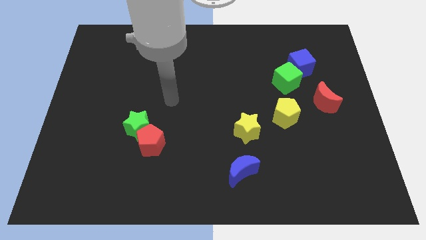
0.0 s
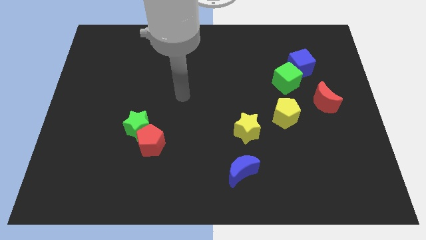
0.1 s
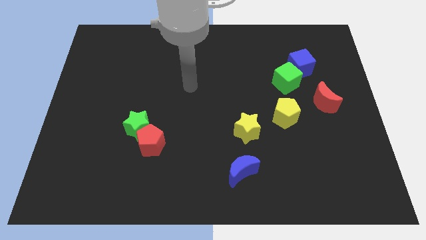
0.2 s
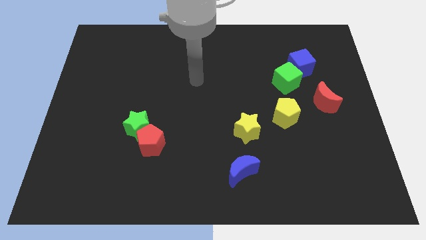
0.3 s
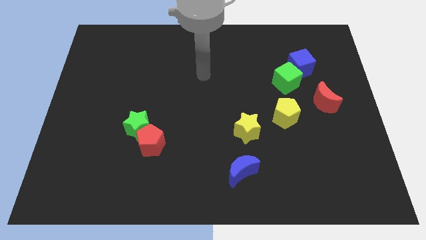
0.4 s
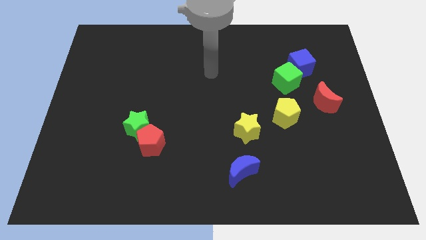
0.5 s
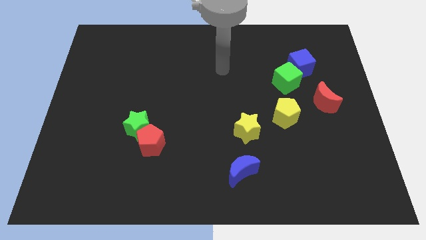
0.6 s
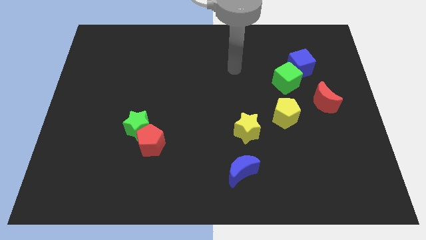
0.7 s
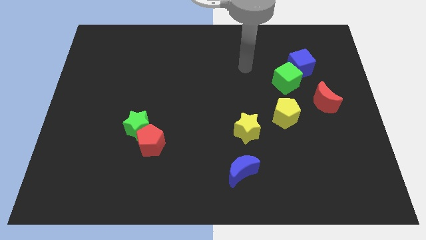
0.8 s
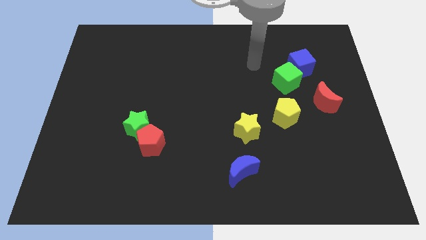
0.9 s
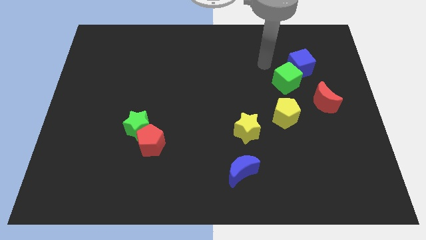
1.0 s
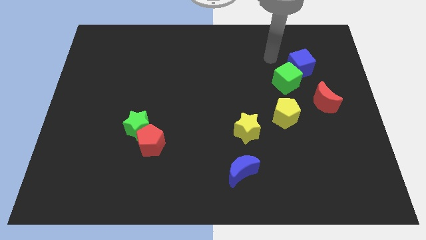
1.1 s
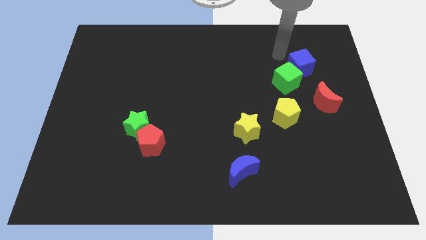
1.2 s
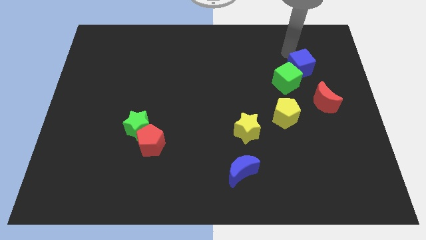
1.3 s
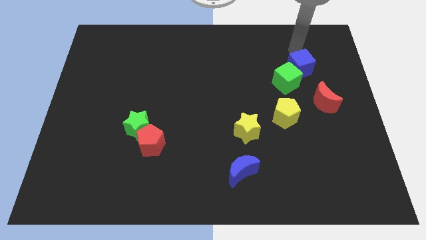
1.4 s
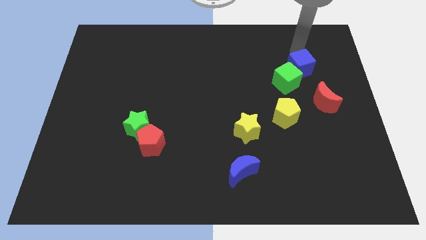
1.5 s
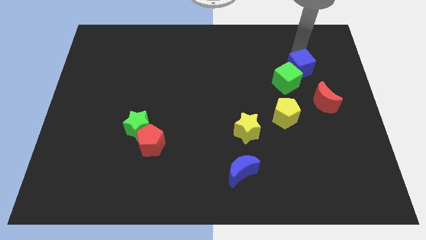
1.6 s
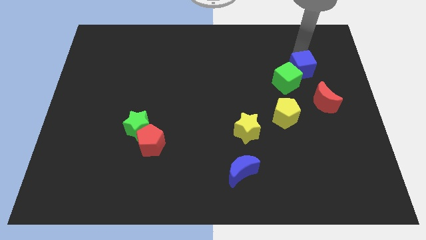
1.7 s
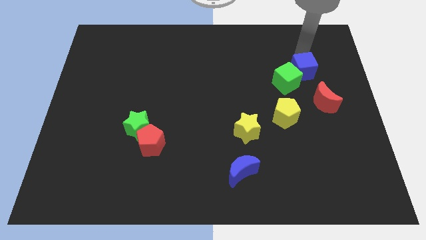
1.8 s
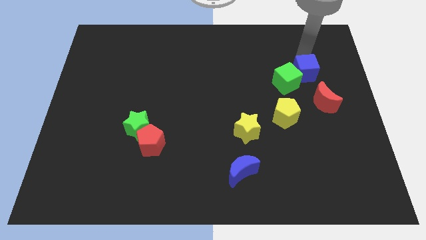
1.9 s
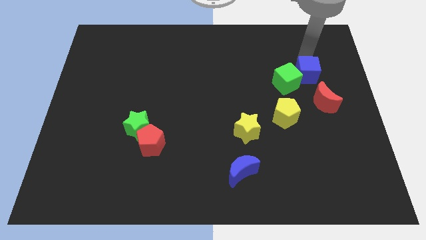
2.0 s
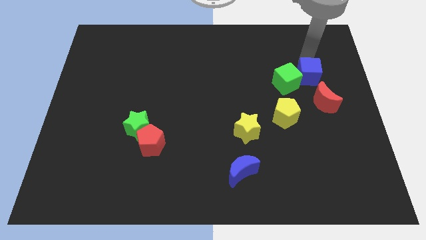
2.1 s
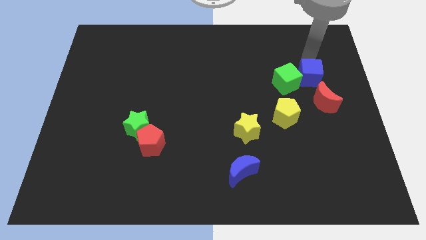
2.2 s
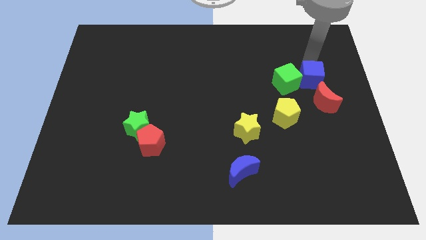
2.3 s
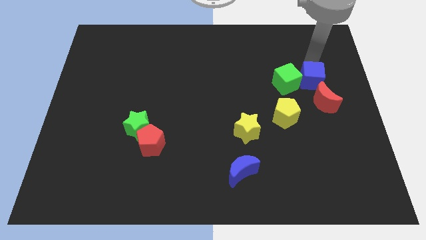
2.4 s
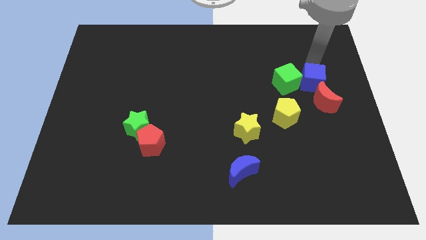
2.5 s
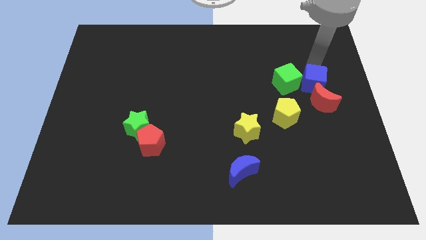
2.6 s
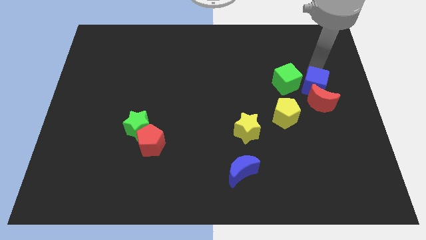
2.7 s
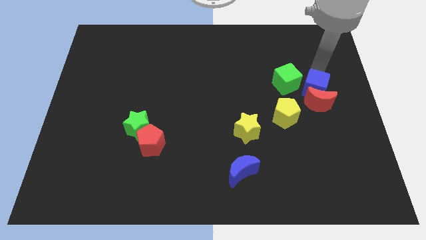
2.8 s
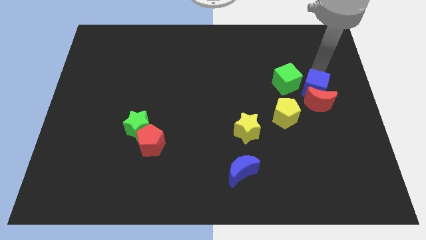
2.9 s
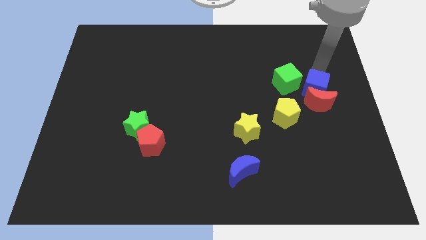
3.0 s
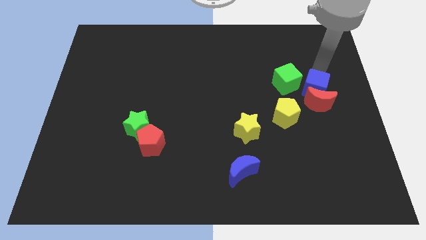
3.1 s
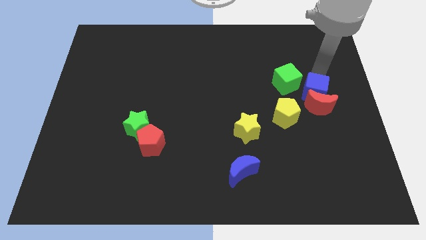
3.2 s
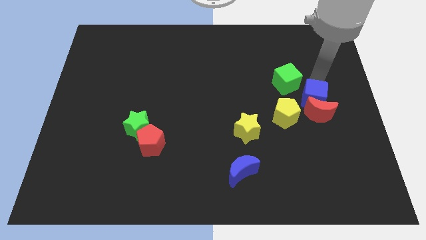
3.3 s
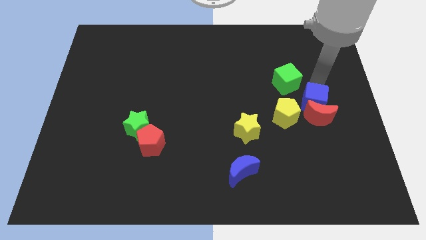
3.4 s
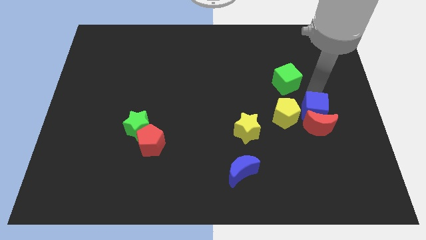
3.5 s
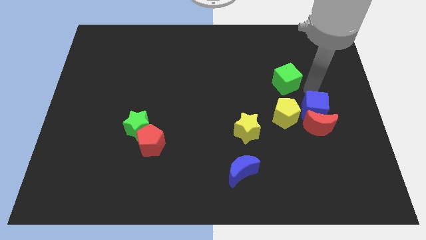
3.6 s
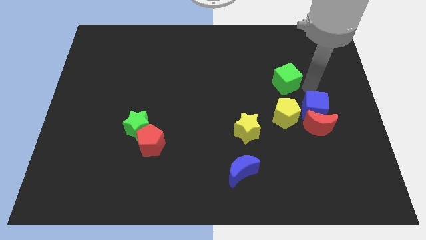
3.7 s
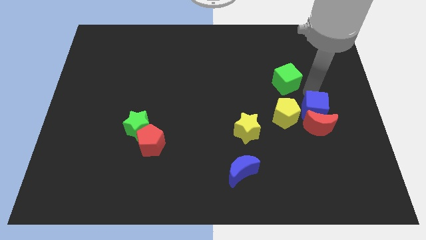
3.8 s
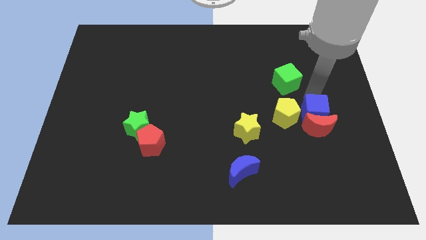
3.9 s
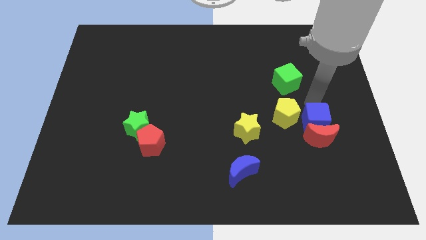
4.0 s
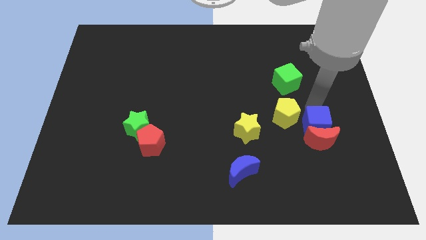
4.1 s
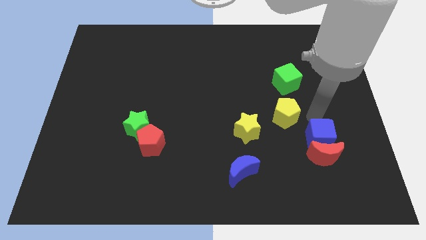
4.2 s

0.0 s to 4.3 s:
slide the blue cube down

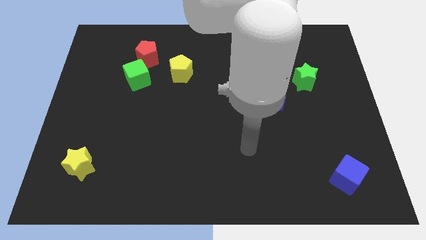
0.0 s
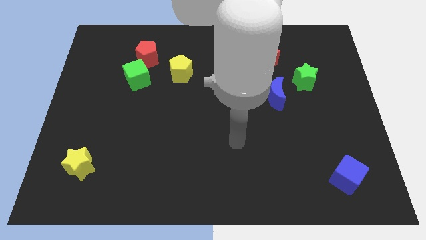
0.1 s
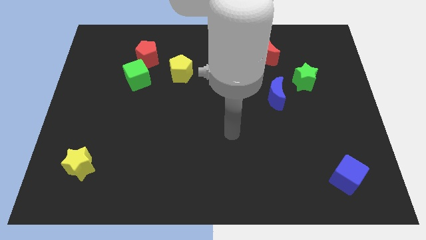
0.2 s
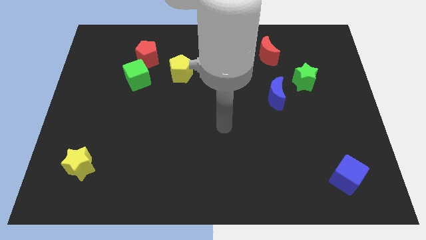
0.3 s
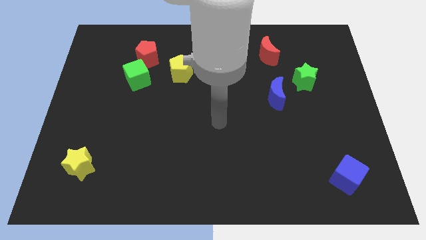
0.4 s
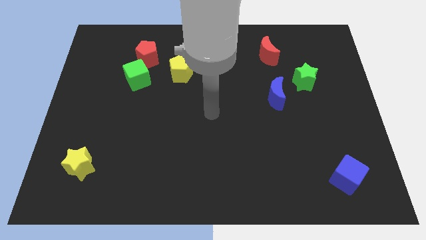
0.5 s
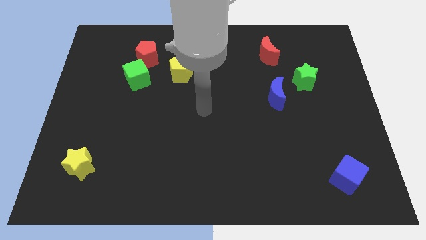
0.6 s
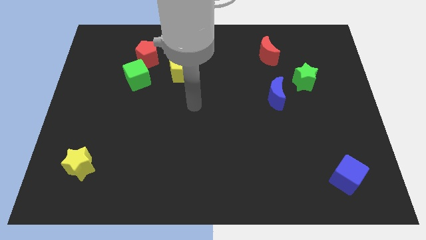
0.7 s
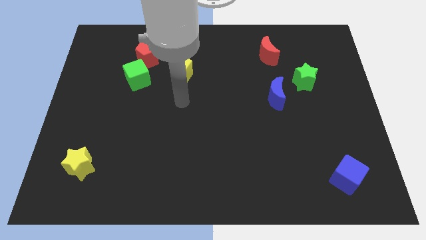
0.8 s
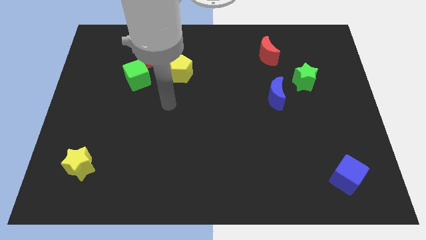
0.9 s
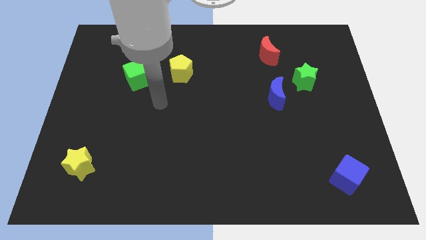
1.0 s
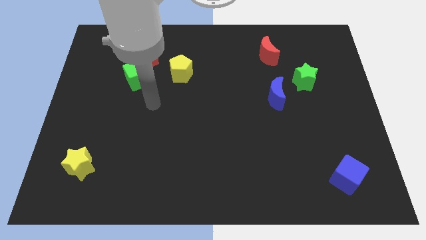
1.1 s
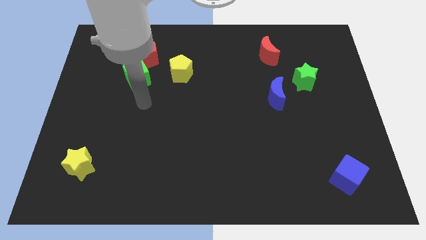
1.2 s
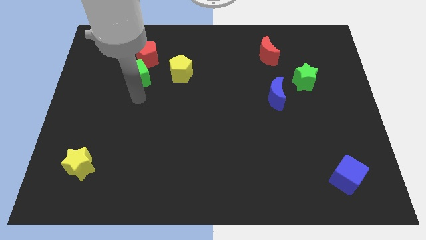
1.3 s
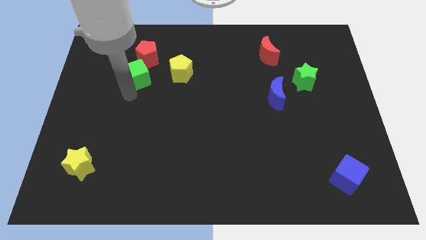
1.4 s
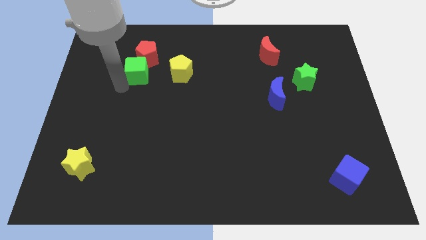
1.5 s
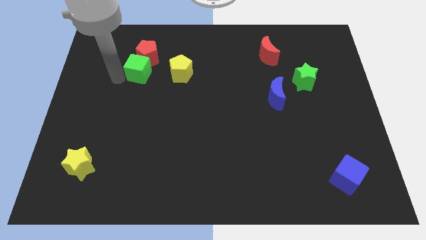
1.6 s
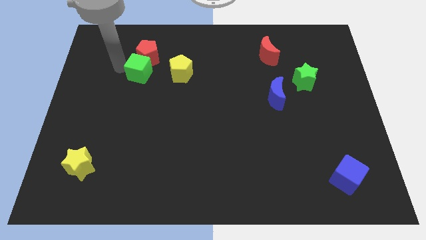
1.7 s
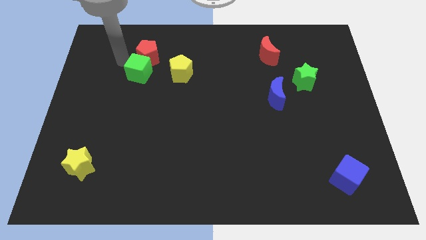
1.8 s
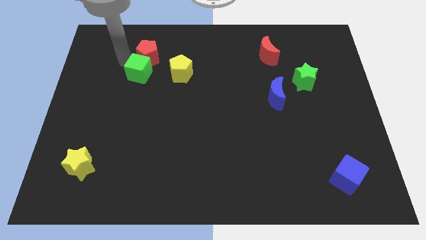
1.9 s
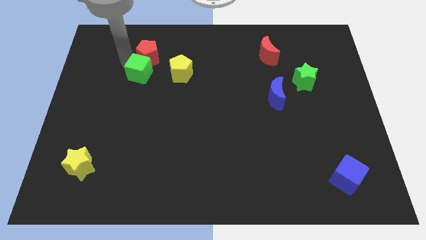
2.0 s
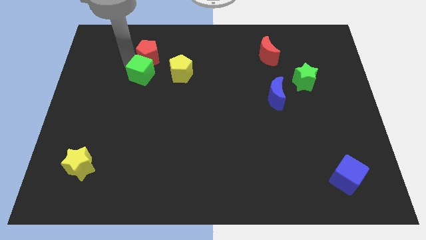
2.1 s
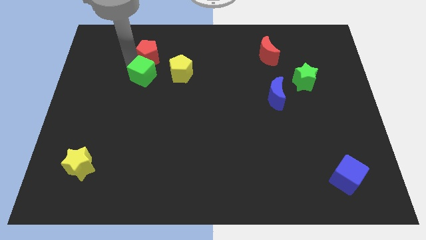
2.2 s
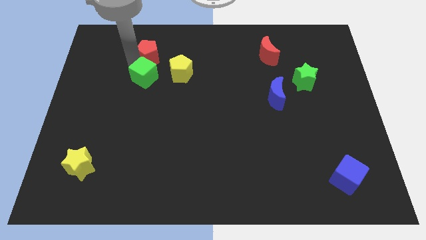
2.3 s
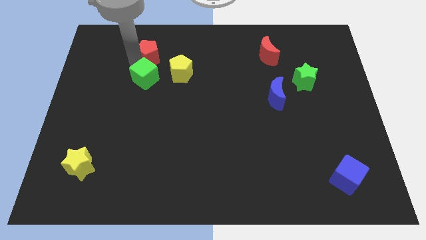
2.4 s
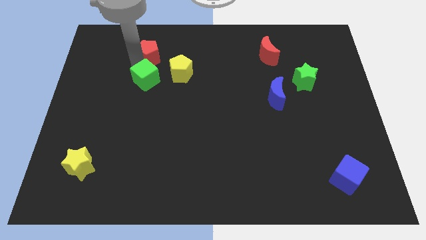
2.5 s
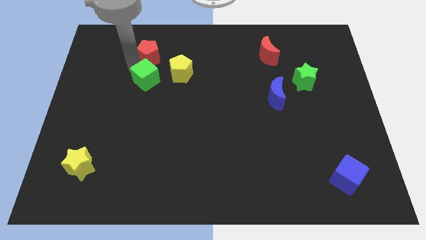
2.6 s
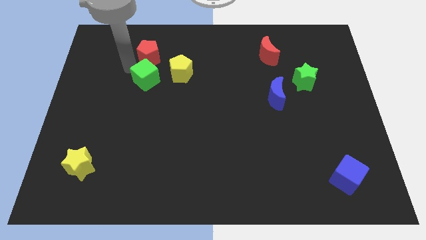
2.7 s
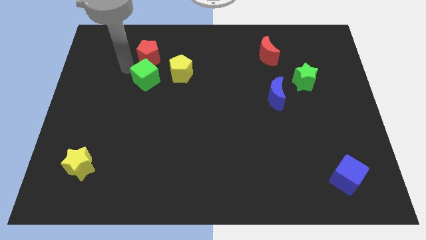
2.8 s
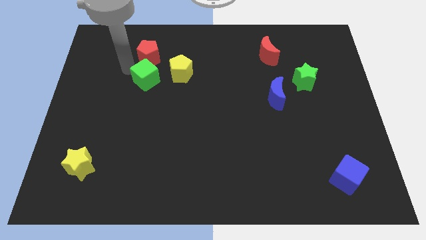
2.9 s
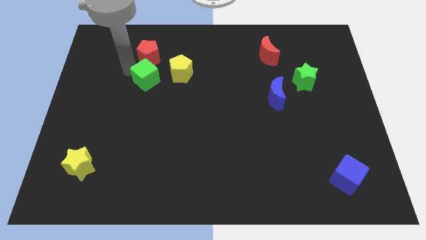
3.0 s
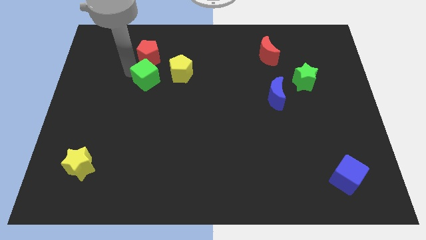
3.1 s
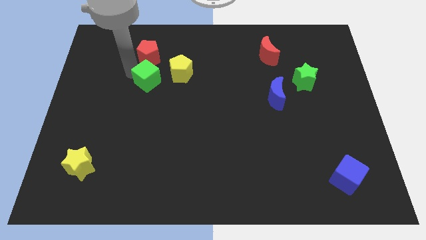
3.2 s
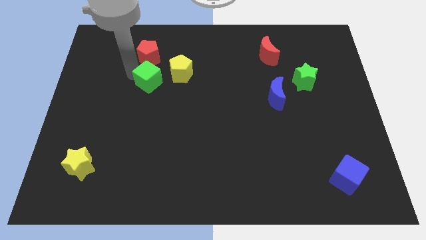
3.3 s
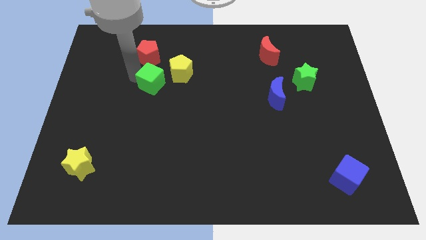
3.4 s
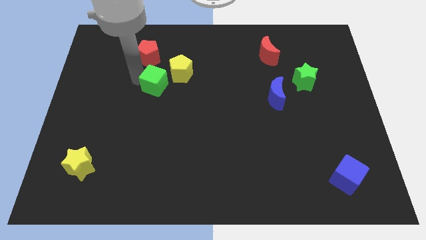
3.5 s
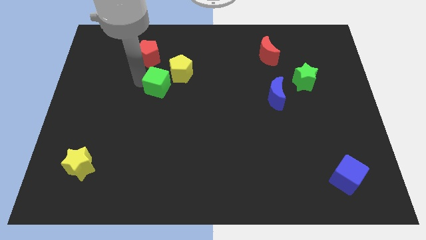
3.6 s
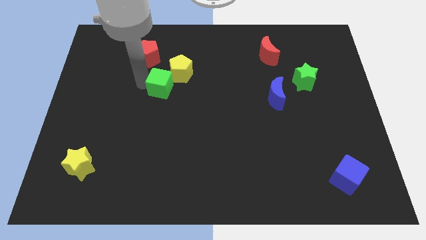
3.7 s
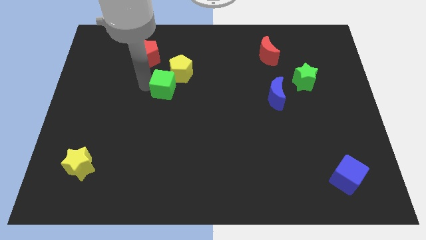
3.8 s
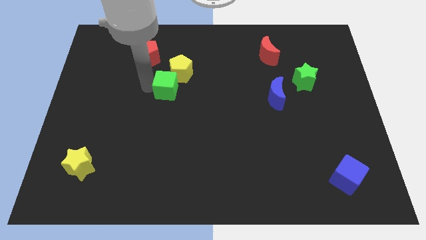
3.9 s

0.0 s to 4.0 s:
move the green cube right slightly
